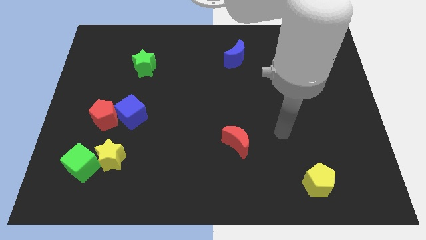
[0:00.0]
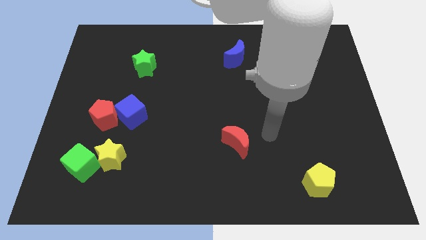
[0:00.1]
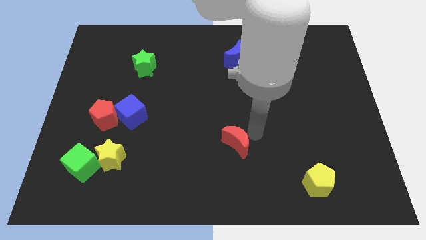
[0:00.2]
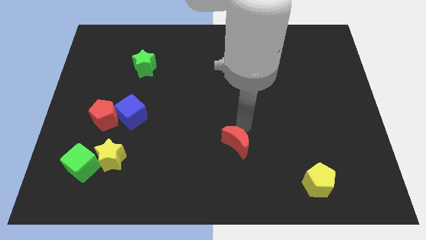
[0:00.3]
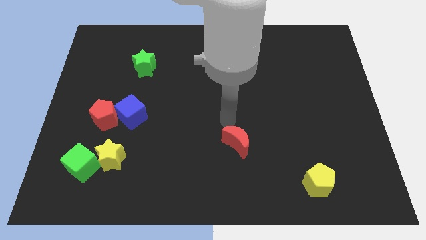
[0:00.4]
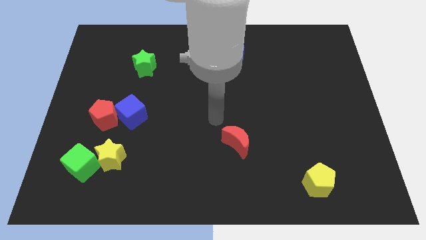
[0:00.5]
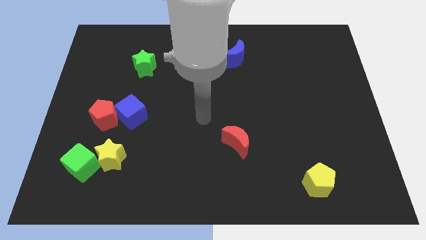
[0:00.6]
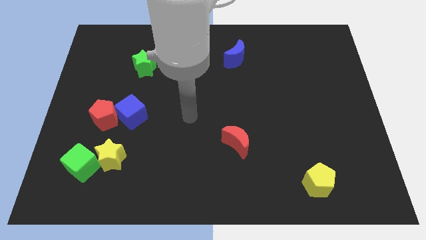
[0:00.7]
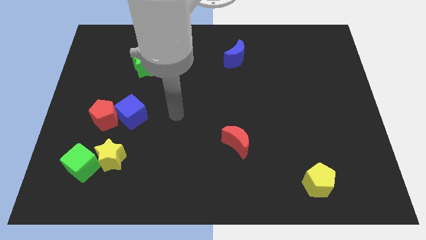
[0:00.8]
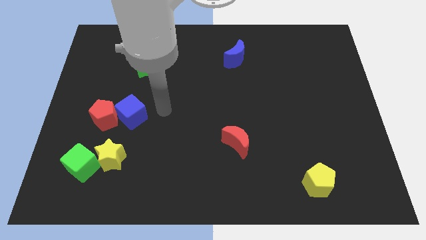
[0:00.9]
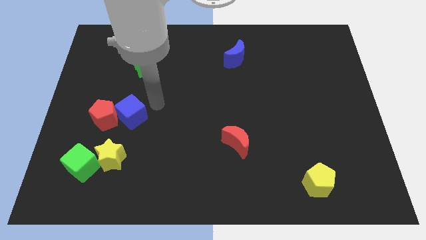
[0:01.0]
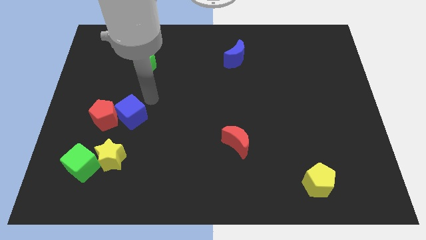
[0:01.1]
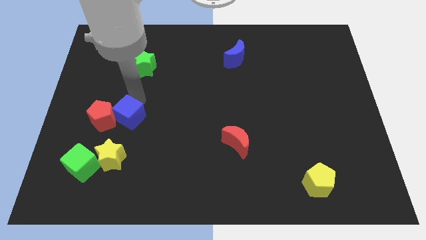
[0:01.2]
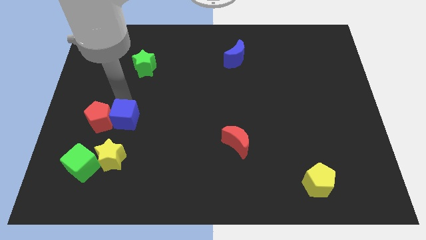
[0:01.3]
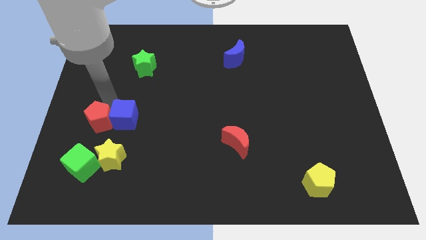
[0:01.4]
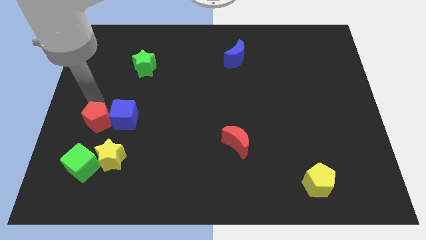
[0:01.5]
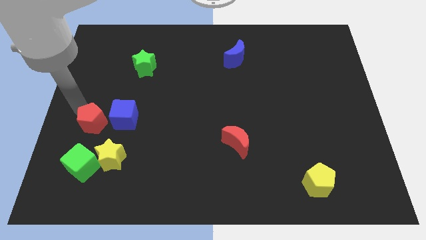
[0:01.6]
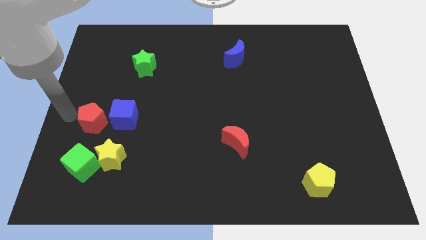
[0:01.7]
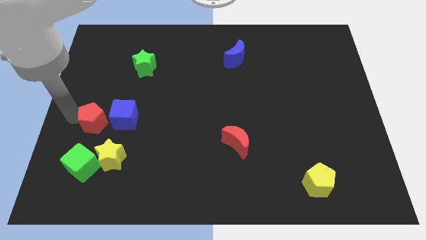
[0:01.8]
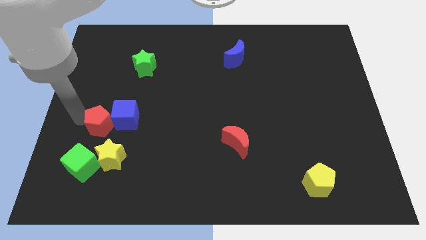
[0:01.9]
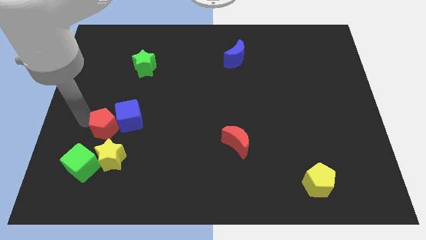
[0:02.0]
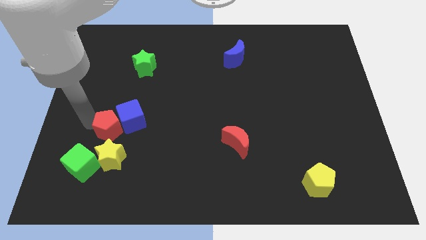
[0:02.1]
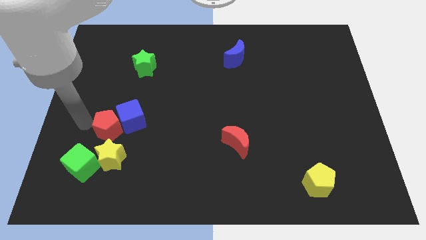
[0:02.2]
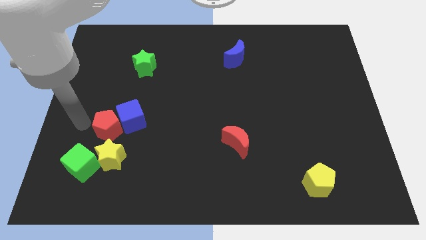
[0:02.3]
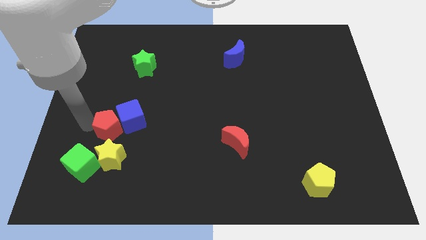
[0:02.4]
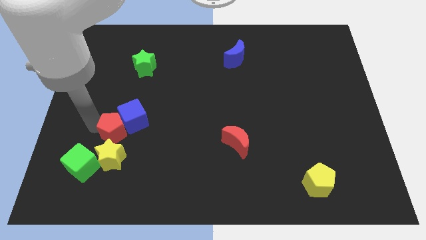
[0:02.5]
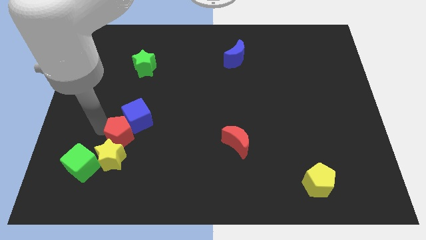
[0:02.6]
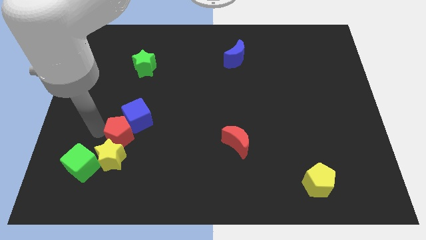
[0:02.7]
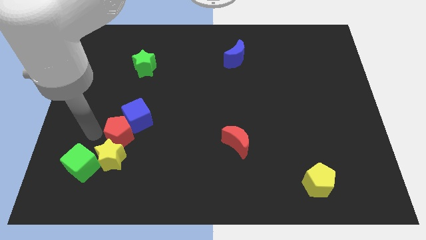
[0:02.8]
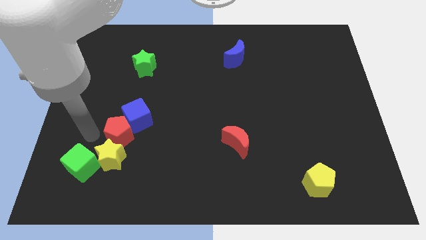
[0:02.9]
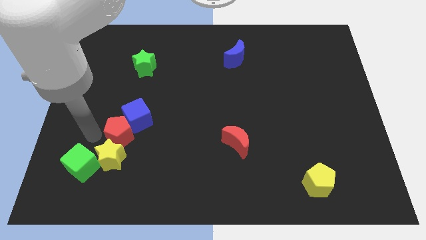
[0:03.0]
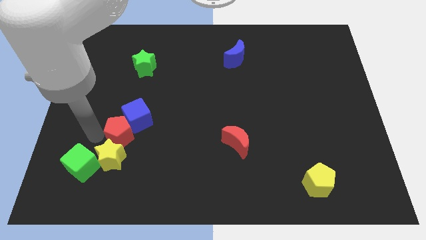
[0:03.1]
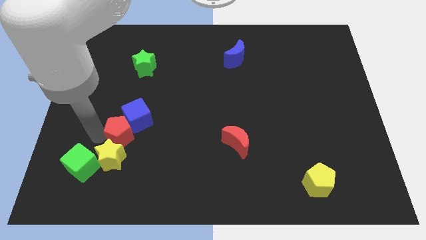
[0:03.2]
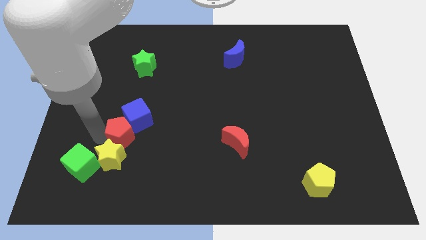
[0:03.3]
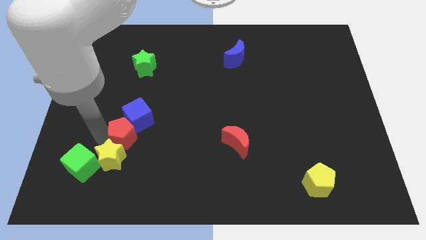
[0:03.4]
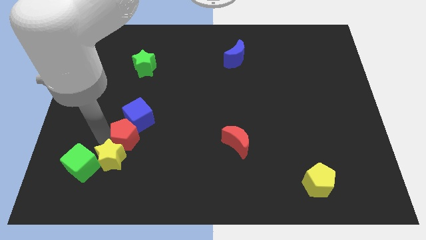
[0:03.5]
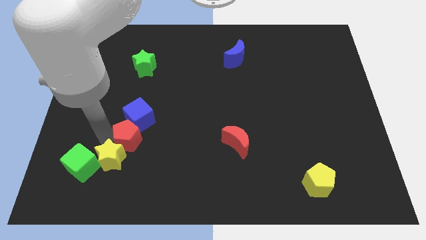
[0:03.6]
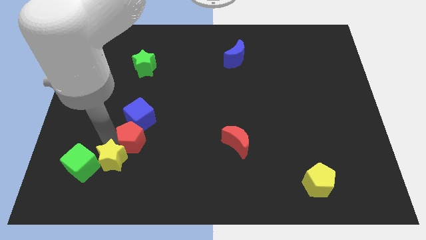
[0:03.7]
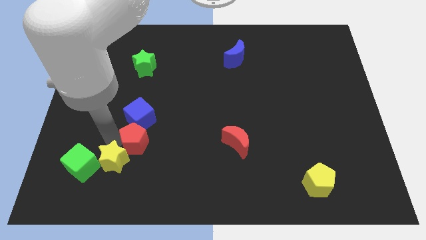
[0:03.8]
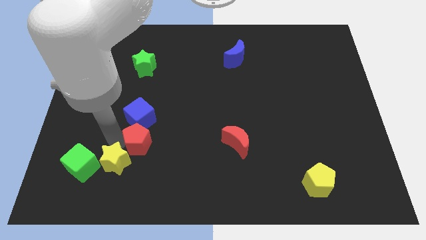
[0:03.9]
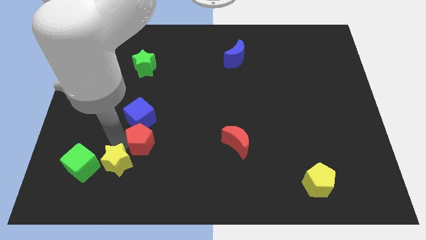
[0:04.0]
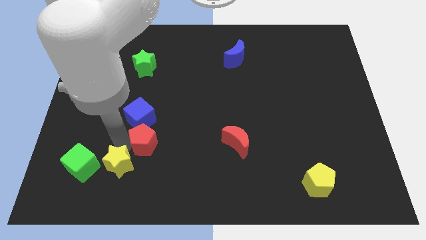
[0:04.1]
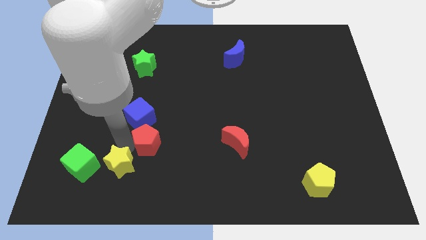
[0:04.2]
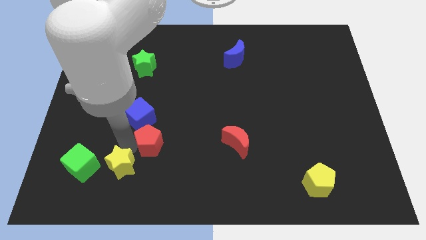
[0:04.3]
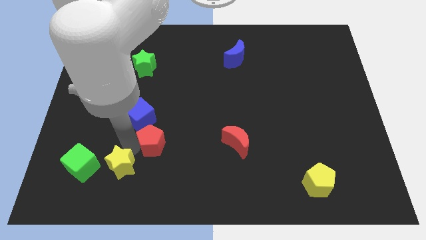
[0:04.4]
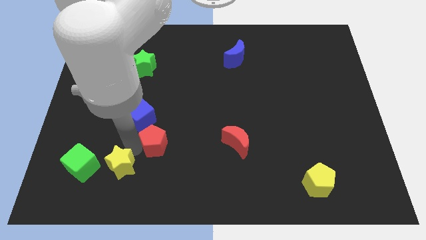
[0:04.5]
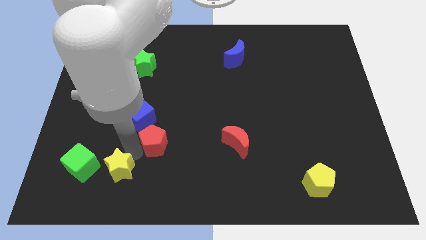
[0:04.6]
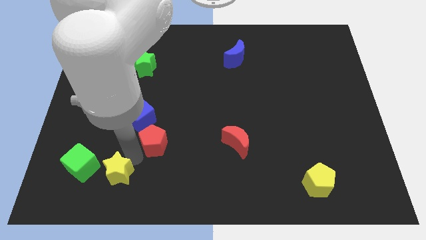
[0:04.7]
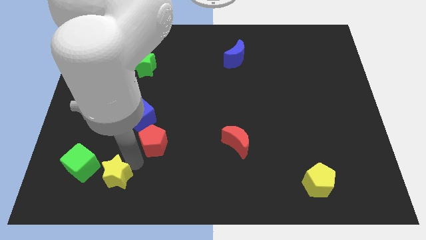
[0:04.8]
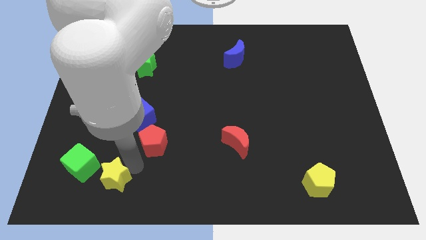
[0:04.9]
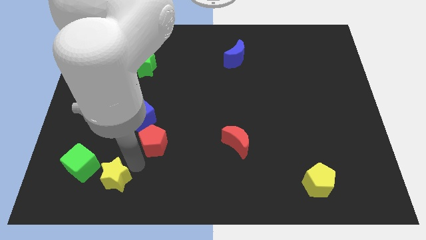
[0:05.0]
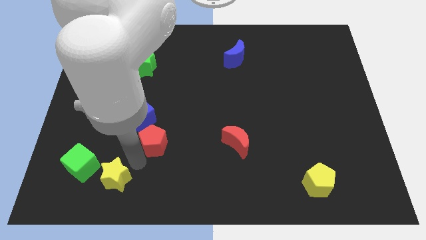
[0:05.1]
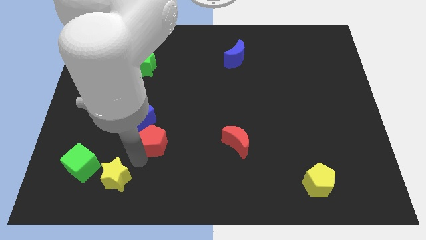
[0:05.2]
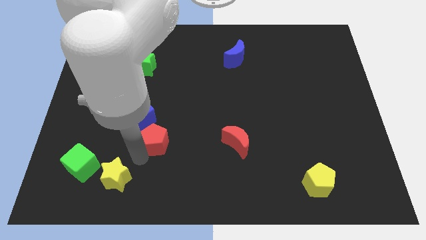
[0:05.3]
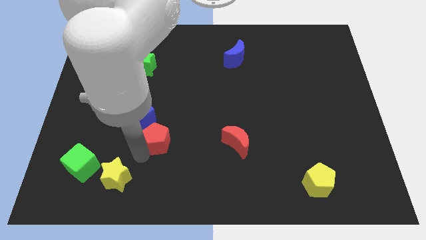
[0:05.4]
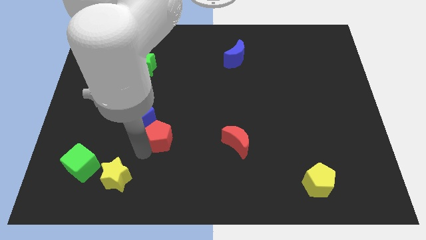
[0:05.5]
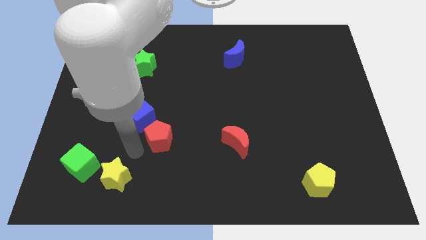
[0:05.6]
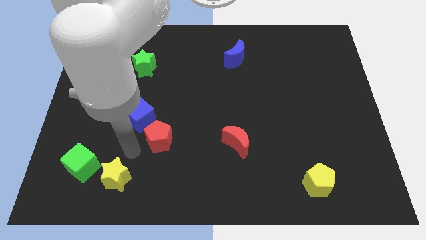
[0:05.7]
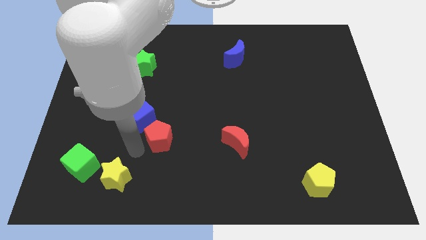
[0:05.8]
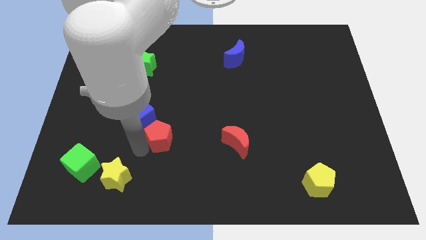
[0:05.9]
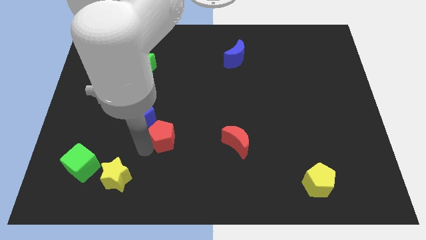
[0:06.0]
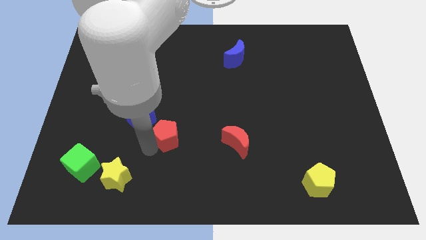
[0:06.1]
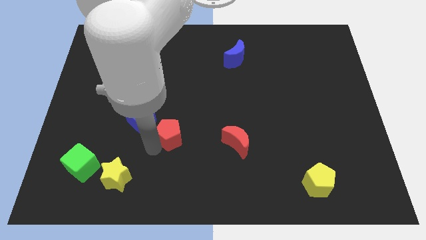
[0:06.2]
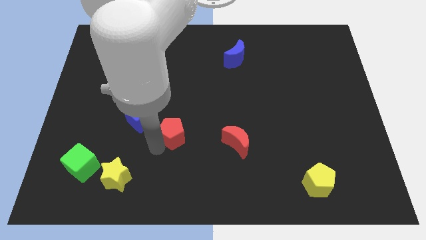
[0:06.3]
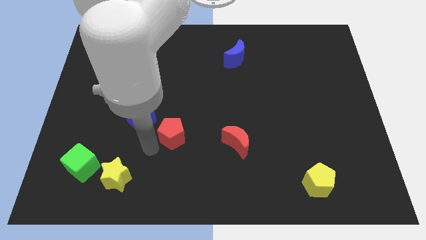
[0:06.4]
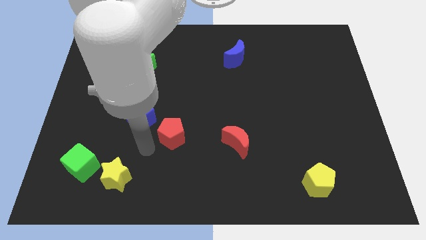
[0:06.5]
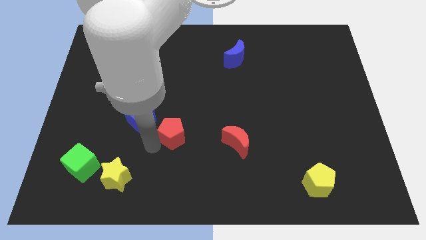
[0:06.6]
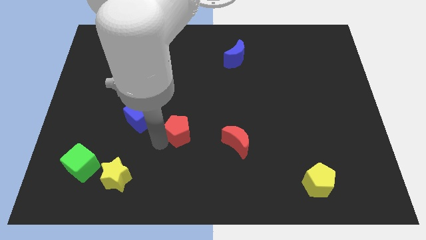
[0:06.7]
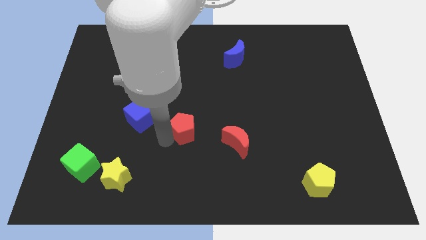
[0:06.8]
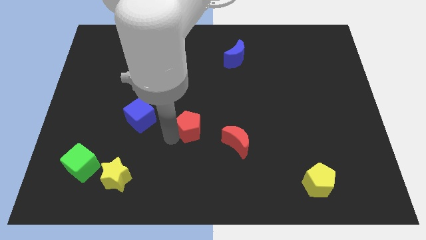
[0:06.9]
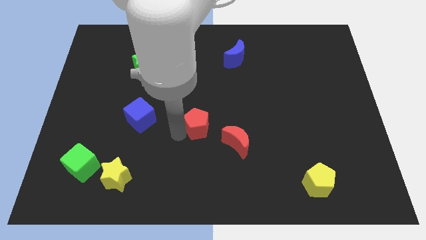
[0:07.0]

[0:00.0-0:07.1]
push the red pentagon to the top left side of the red moon
